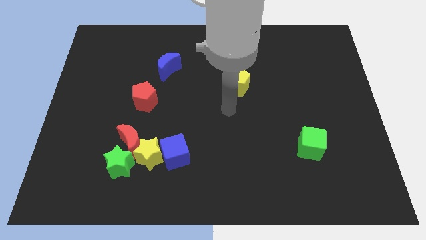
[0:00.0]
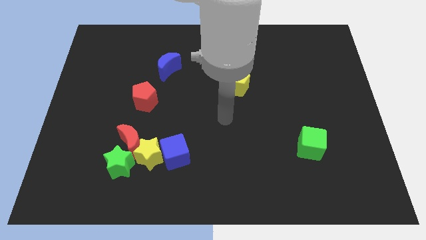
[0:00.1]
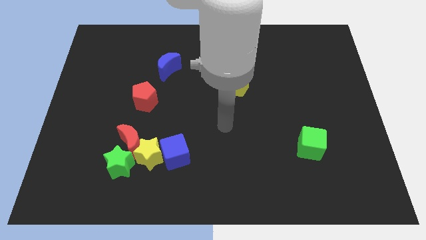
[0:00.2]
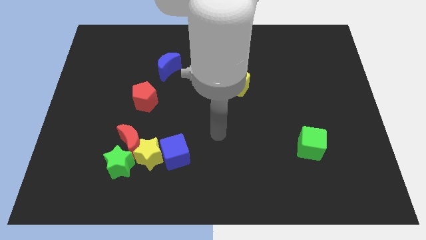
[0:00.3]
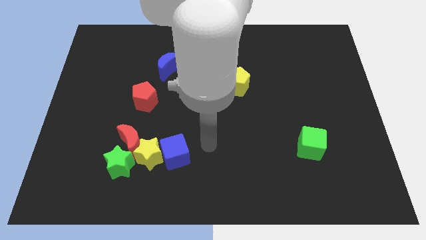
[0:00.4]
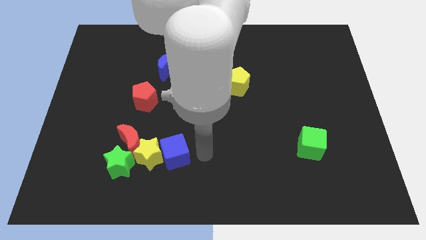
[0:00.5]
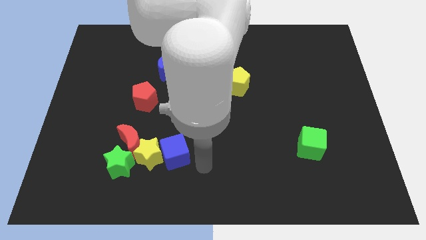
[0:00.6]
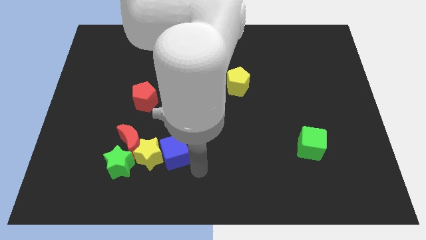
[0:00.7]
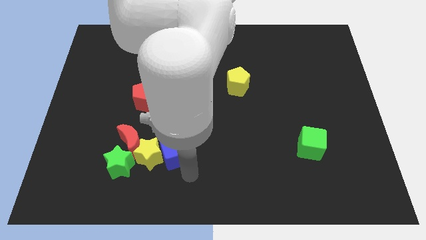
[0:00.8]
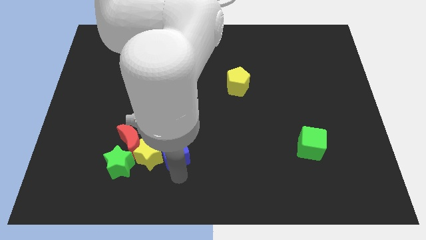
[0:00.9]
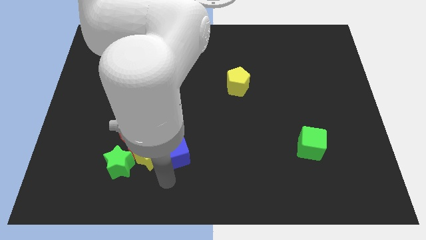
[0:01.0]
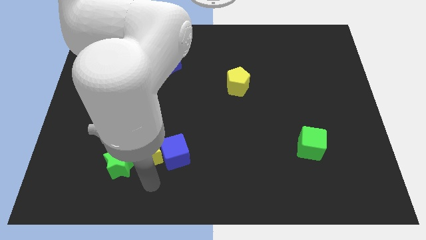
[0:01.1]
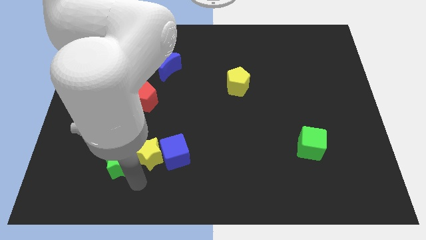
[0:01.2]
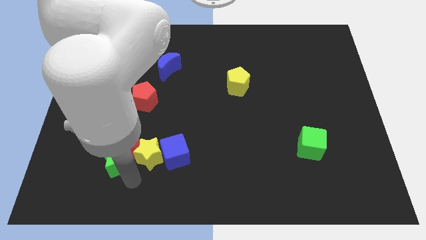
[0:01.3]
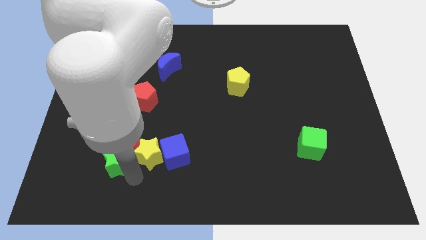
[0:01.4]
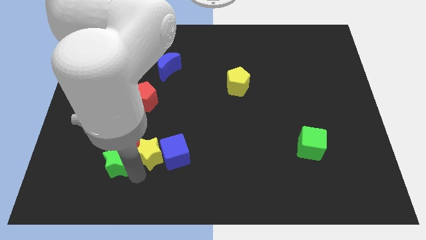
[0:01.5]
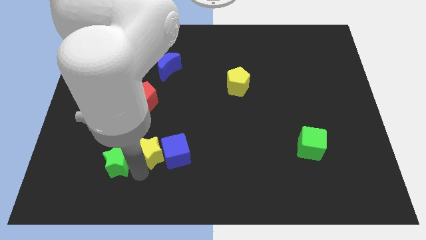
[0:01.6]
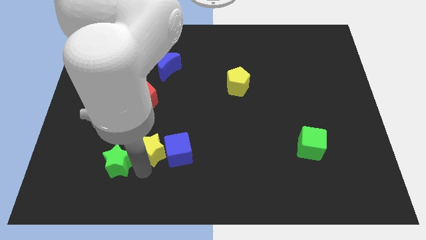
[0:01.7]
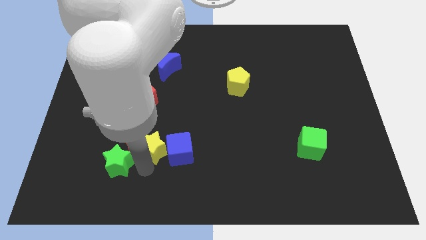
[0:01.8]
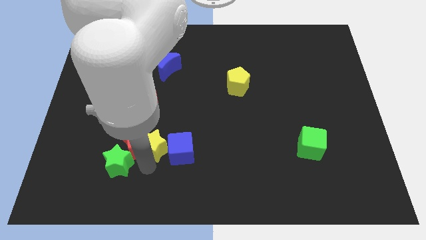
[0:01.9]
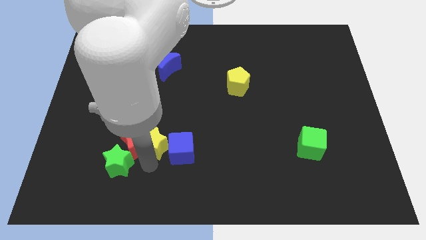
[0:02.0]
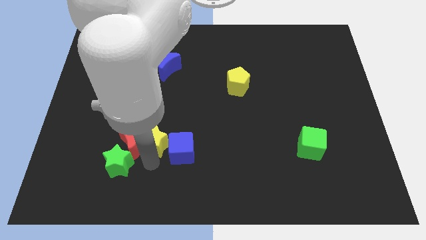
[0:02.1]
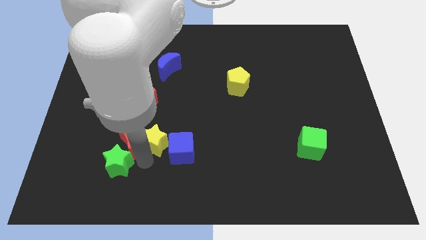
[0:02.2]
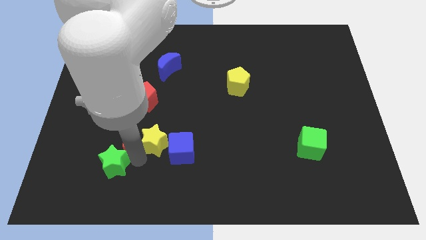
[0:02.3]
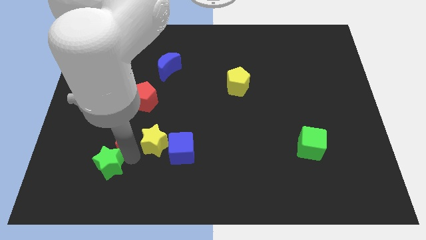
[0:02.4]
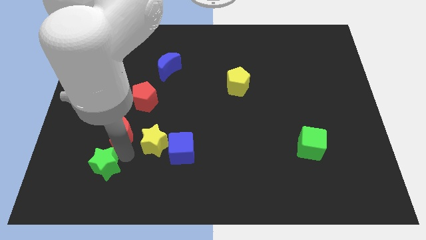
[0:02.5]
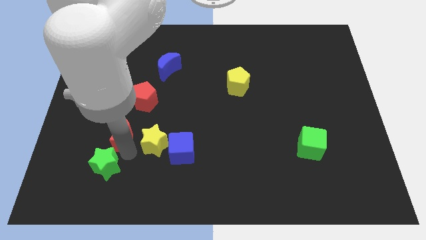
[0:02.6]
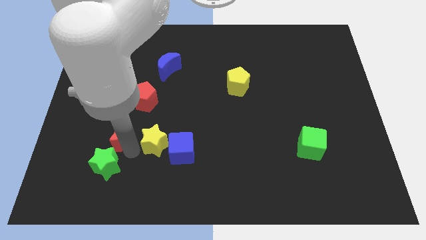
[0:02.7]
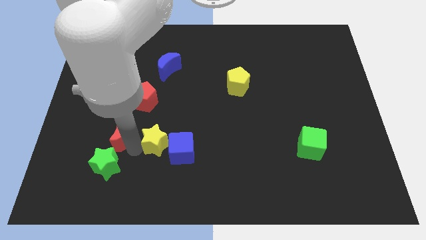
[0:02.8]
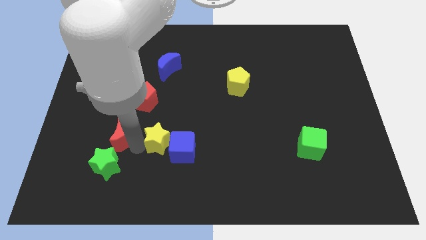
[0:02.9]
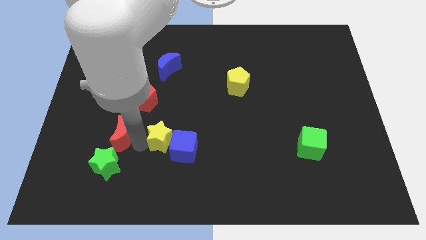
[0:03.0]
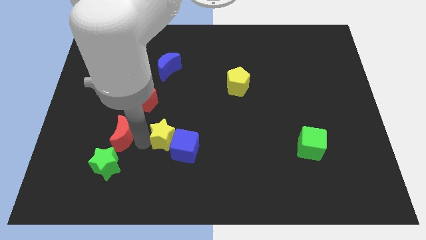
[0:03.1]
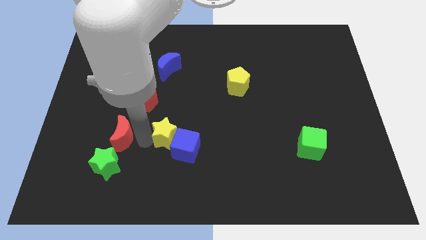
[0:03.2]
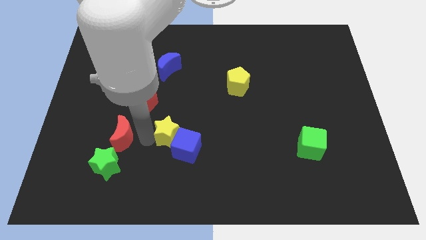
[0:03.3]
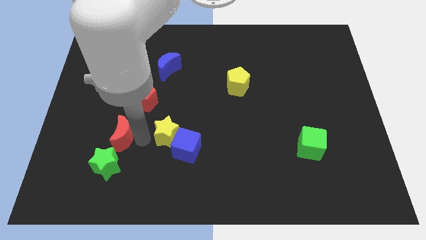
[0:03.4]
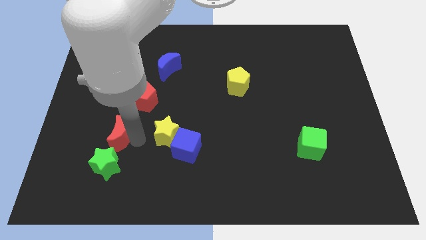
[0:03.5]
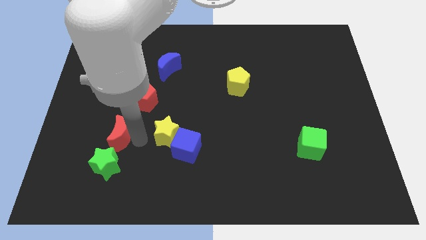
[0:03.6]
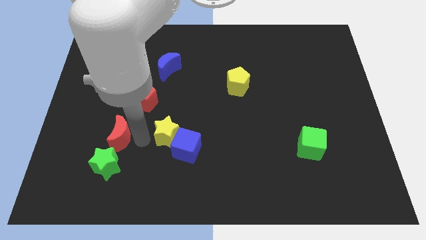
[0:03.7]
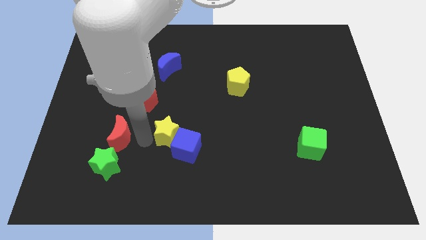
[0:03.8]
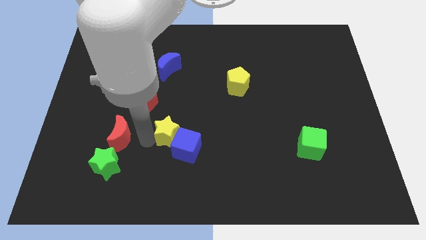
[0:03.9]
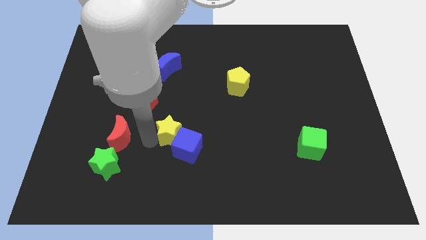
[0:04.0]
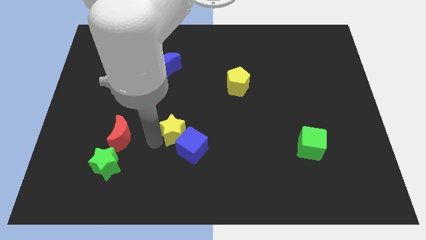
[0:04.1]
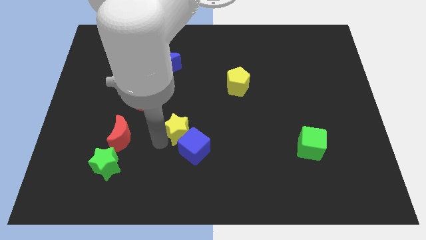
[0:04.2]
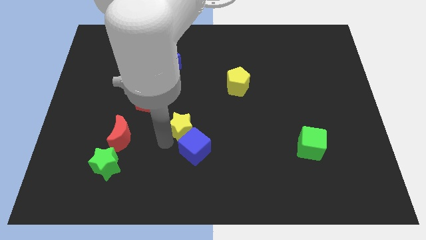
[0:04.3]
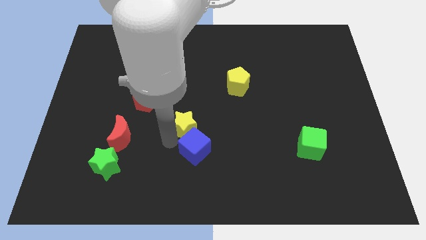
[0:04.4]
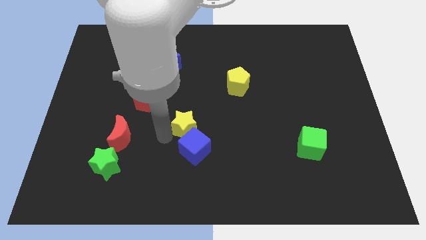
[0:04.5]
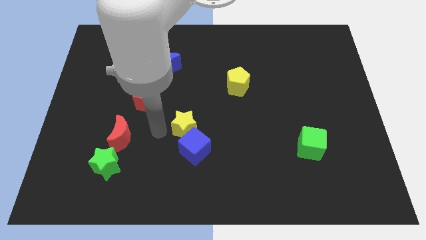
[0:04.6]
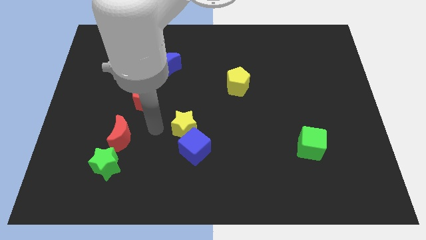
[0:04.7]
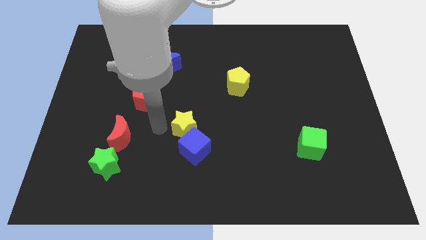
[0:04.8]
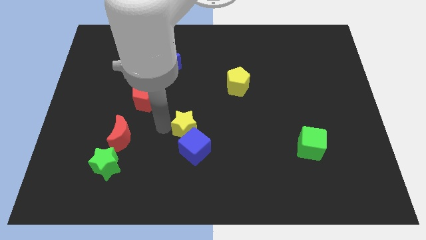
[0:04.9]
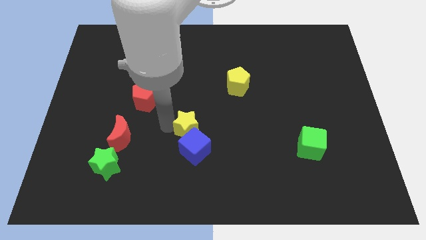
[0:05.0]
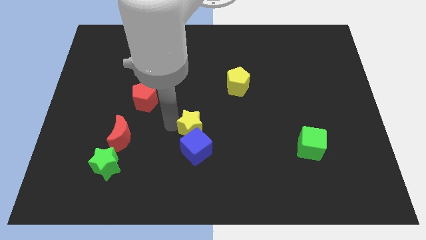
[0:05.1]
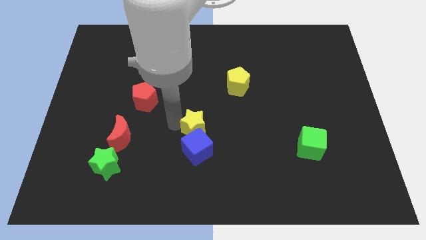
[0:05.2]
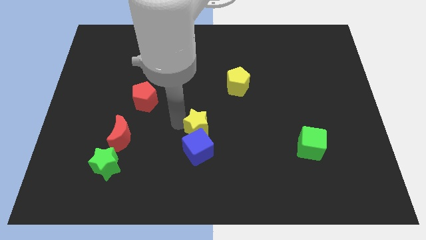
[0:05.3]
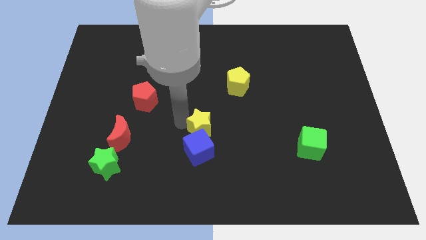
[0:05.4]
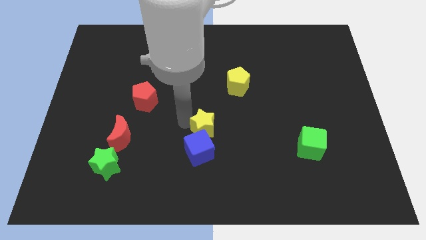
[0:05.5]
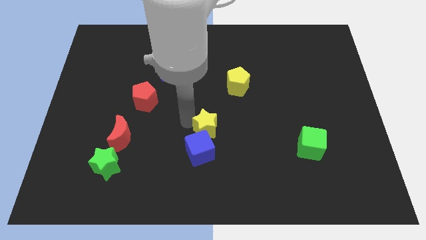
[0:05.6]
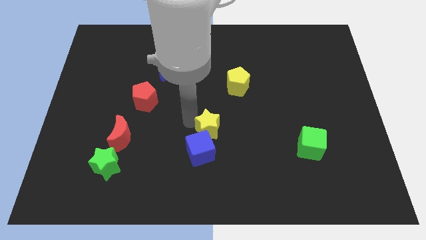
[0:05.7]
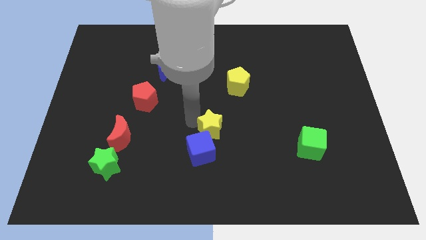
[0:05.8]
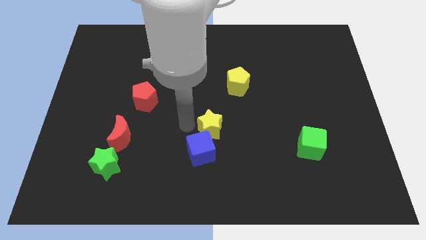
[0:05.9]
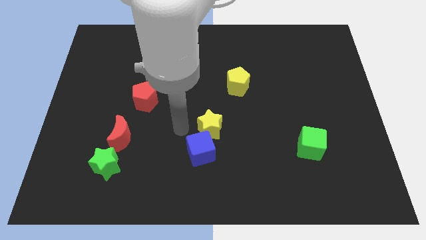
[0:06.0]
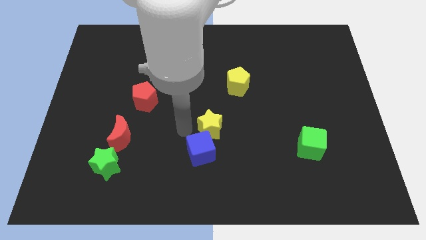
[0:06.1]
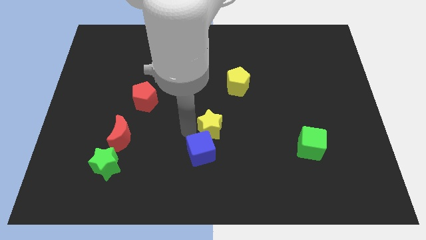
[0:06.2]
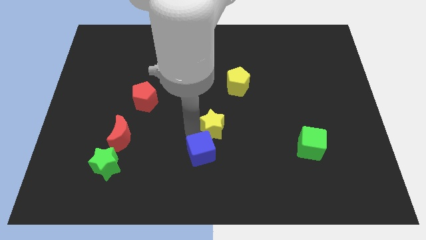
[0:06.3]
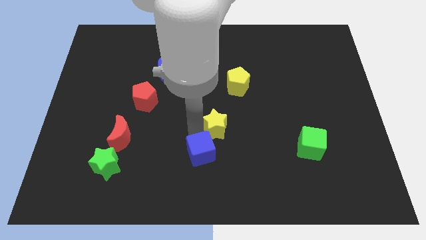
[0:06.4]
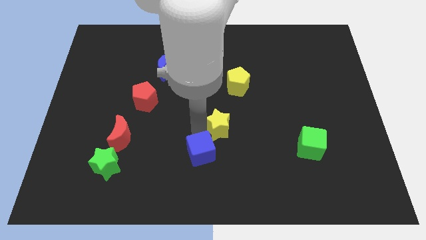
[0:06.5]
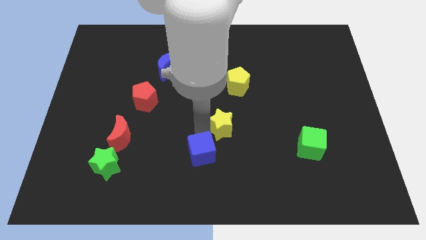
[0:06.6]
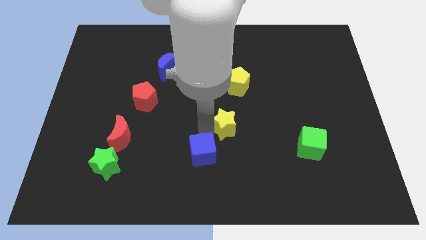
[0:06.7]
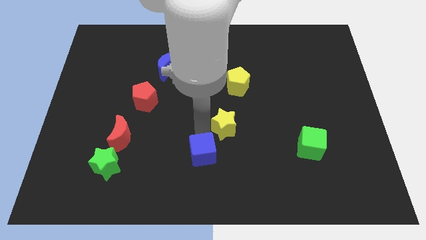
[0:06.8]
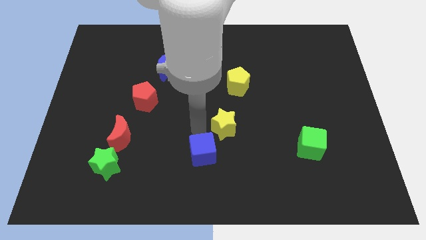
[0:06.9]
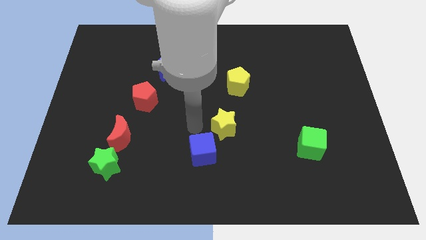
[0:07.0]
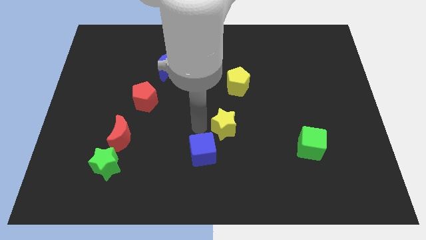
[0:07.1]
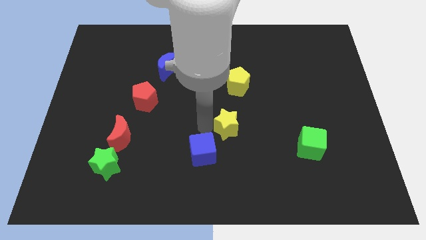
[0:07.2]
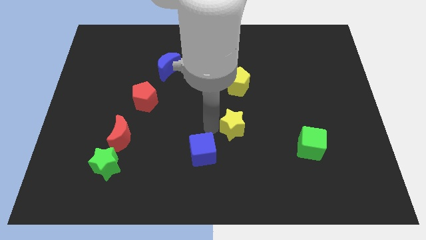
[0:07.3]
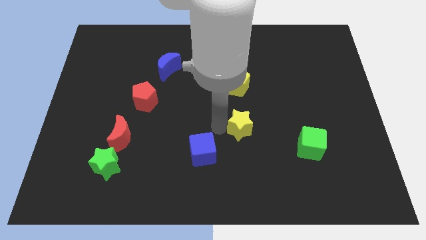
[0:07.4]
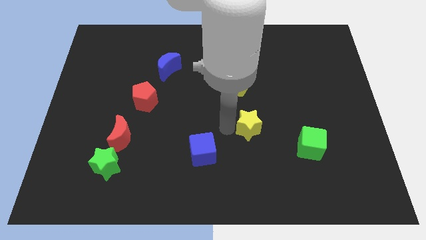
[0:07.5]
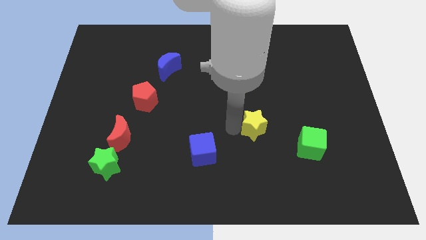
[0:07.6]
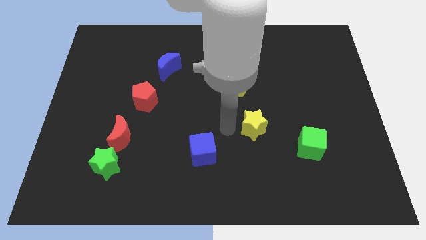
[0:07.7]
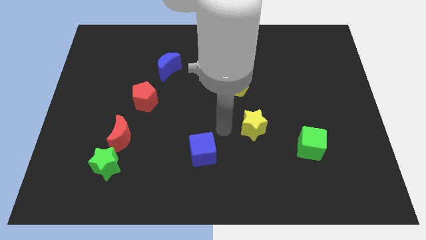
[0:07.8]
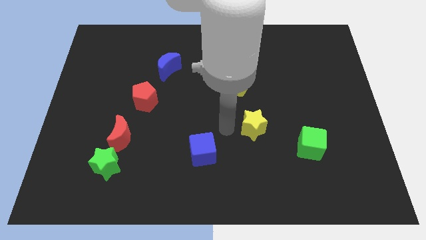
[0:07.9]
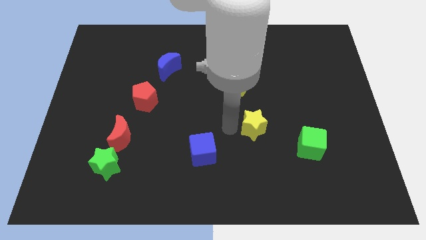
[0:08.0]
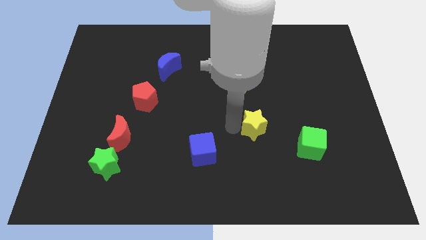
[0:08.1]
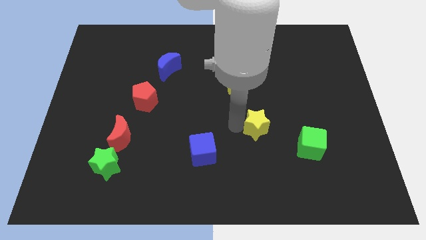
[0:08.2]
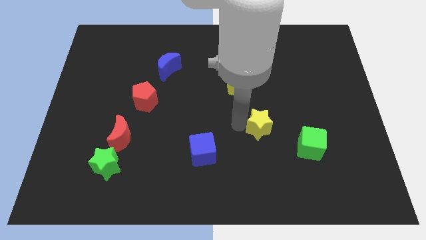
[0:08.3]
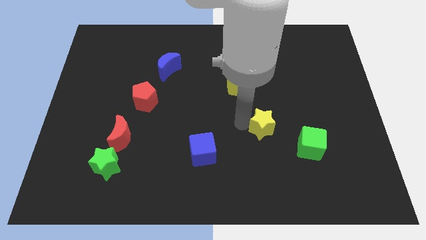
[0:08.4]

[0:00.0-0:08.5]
slide the yellow star to the top left of the green cube
